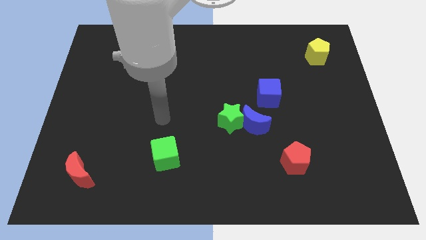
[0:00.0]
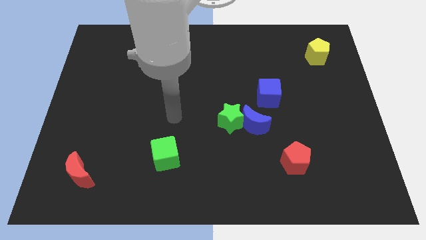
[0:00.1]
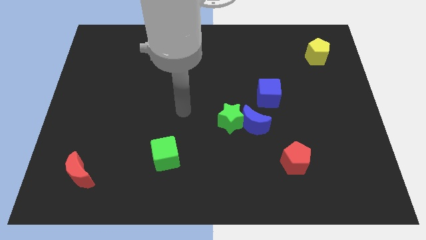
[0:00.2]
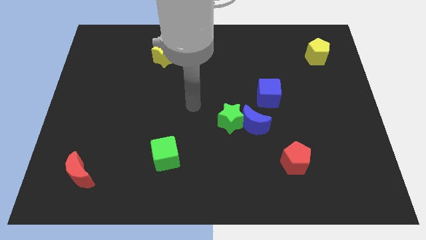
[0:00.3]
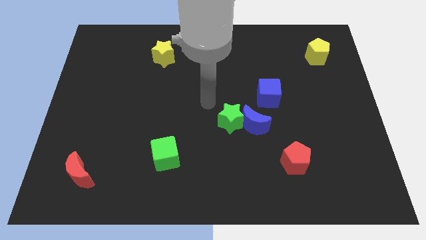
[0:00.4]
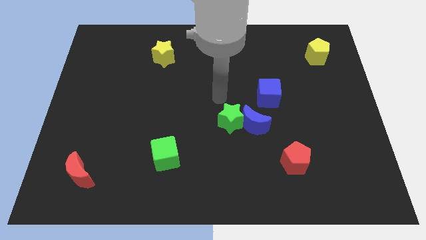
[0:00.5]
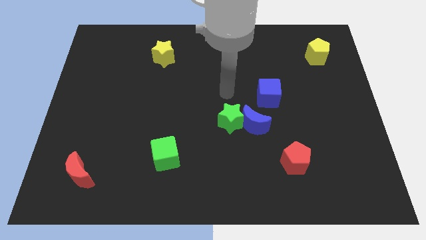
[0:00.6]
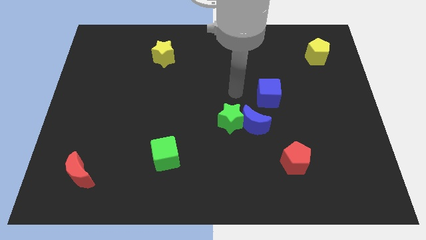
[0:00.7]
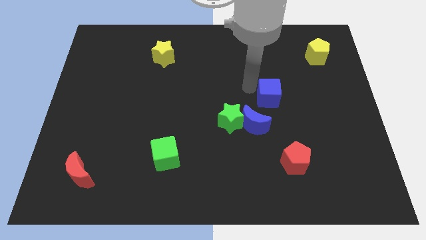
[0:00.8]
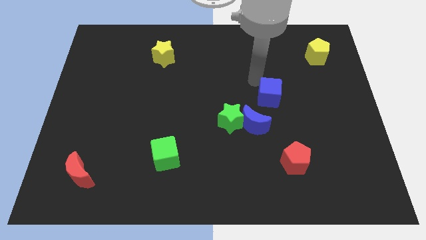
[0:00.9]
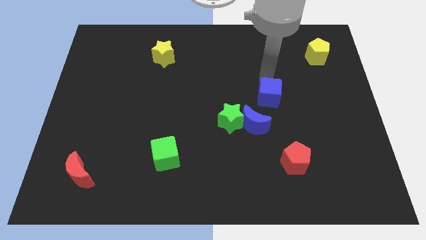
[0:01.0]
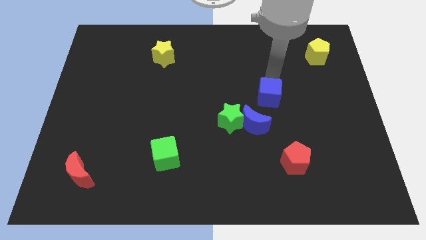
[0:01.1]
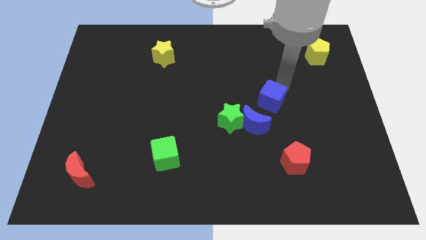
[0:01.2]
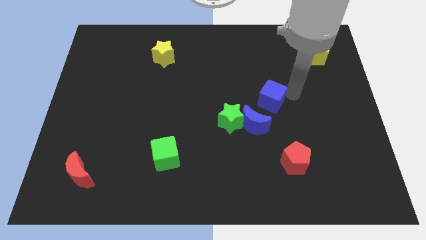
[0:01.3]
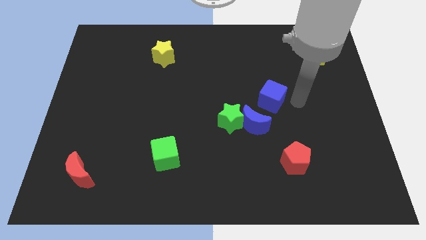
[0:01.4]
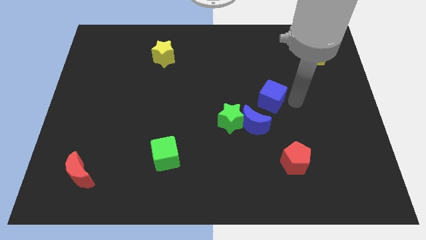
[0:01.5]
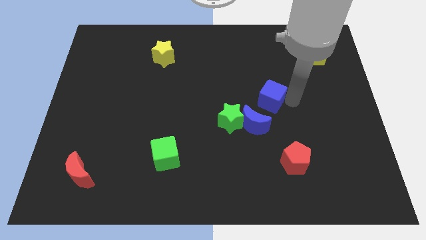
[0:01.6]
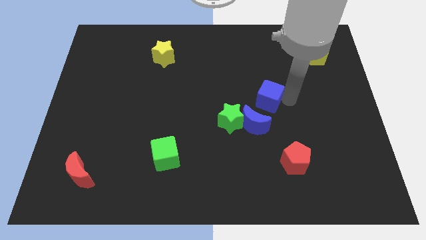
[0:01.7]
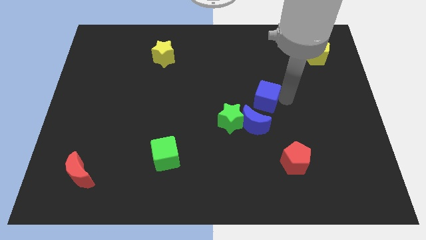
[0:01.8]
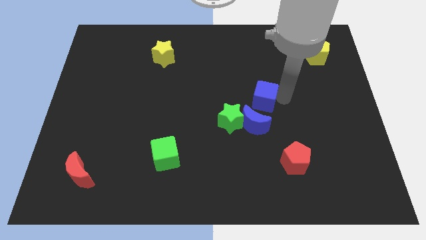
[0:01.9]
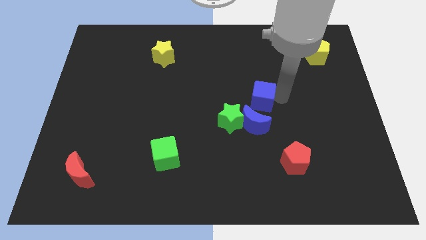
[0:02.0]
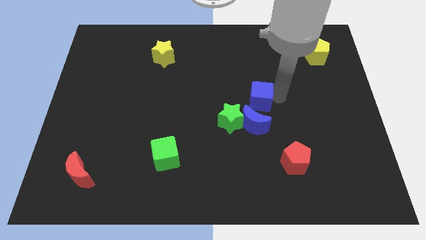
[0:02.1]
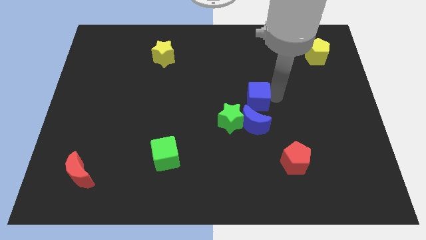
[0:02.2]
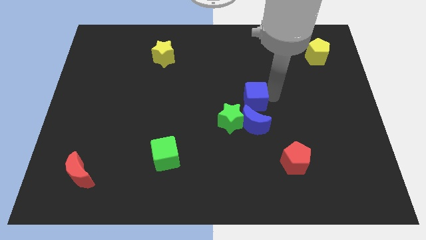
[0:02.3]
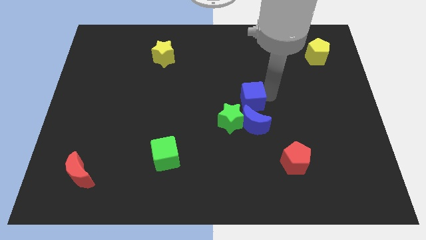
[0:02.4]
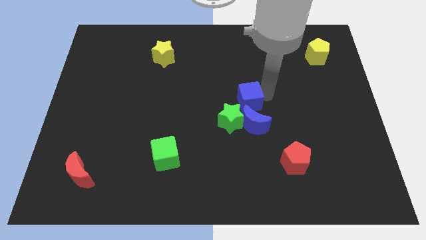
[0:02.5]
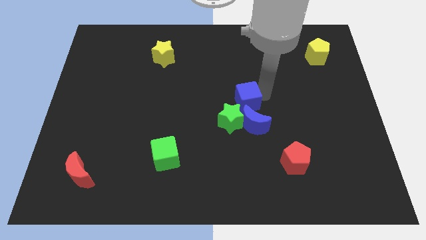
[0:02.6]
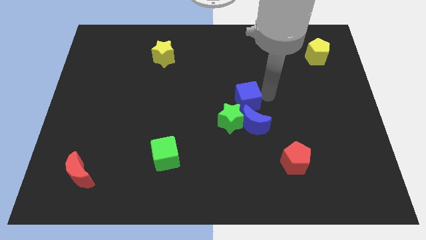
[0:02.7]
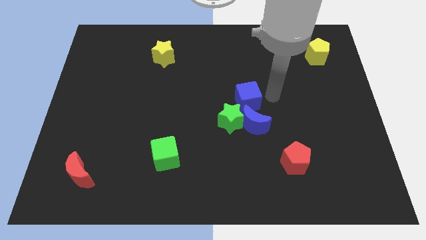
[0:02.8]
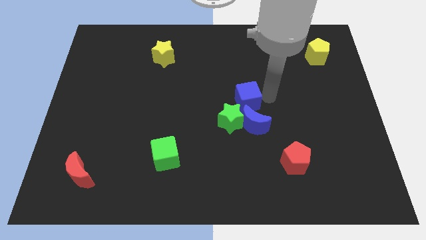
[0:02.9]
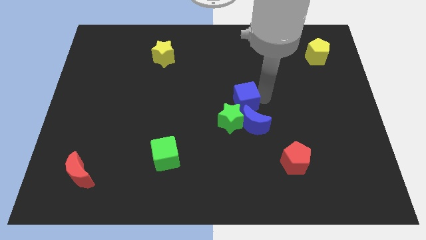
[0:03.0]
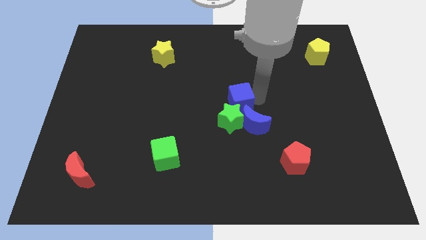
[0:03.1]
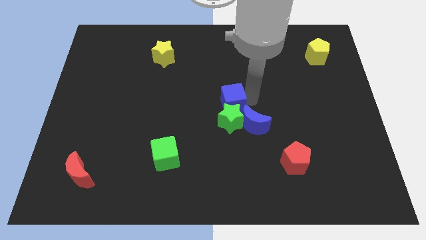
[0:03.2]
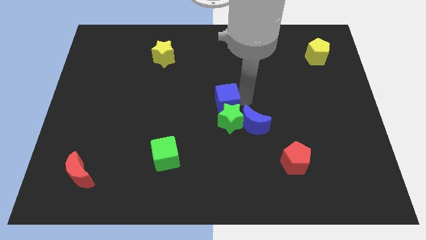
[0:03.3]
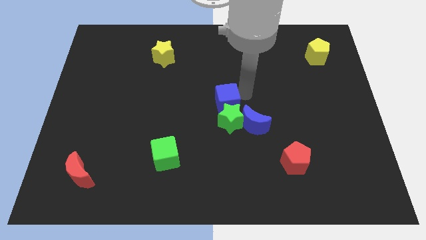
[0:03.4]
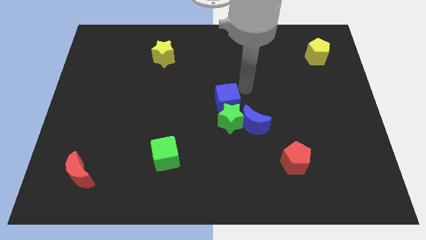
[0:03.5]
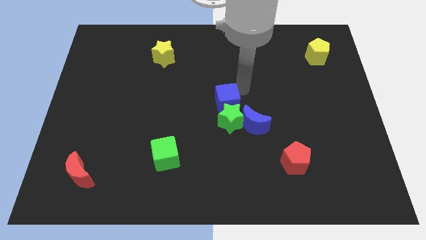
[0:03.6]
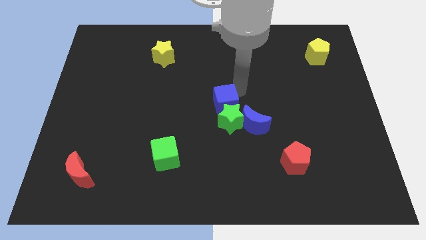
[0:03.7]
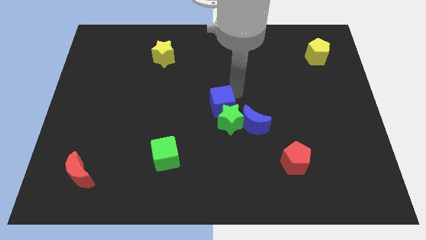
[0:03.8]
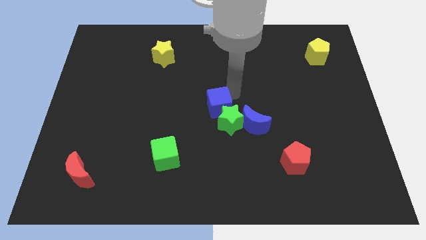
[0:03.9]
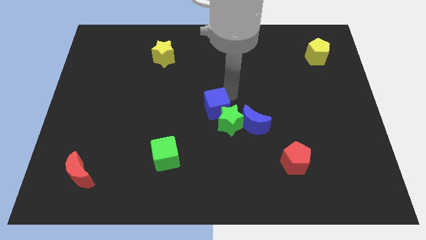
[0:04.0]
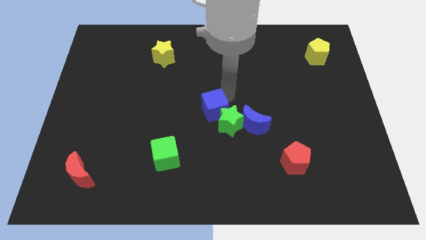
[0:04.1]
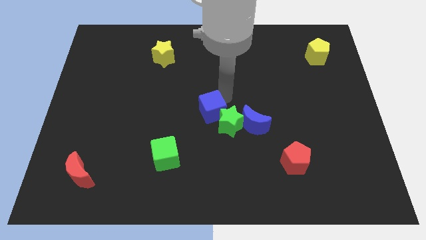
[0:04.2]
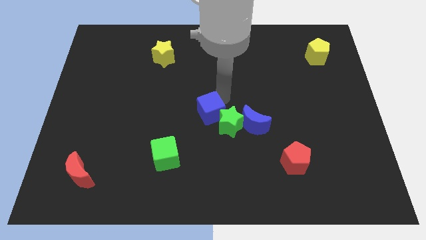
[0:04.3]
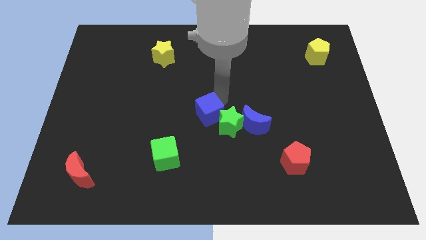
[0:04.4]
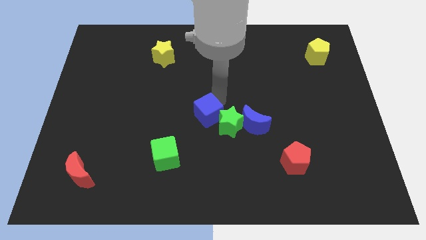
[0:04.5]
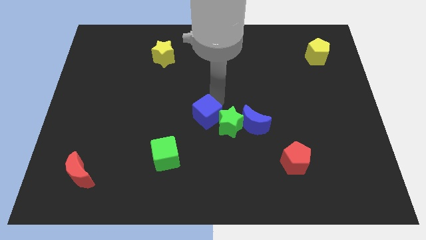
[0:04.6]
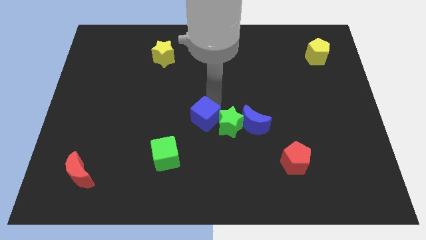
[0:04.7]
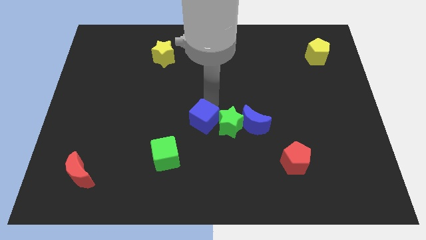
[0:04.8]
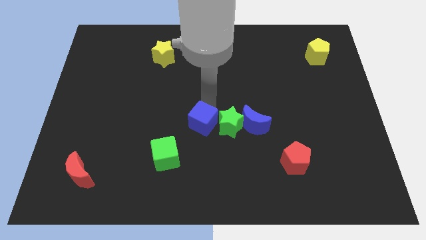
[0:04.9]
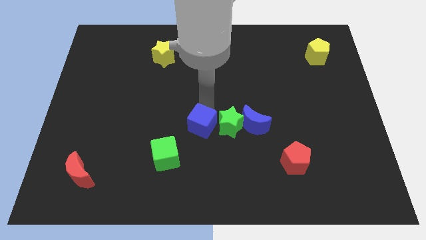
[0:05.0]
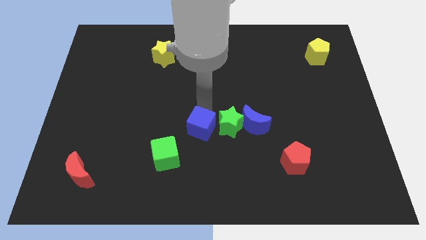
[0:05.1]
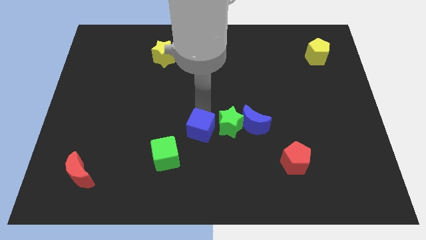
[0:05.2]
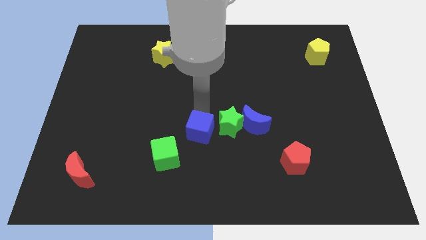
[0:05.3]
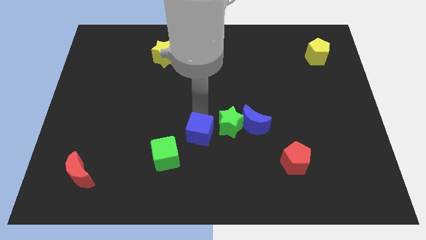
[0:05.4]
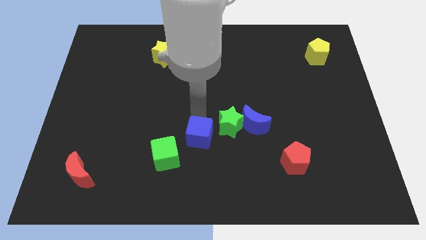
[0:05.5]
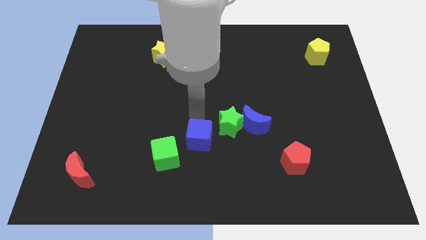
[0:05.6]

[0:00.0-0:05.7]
move the blue cube downwards and then to the left

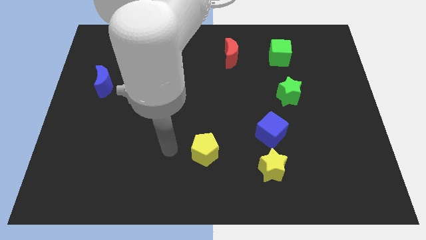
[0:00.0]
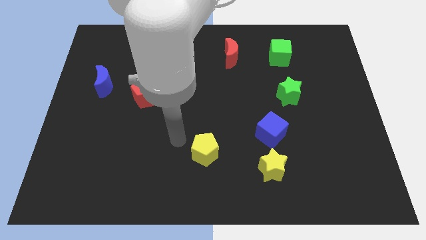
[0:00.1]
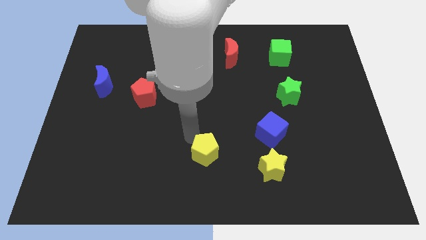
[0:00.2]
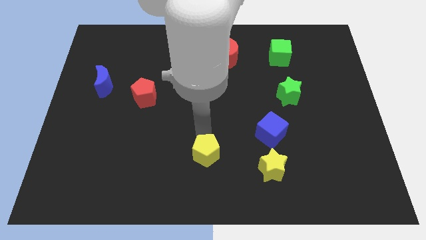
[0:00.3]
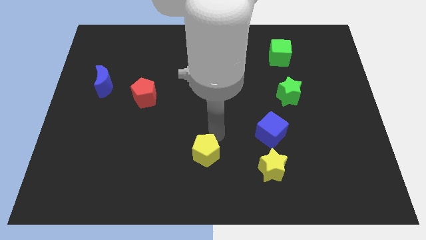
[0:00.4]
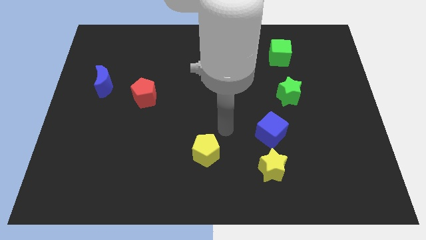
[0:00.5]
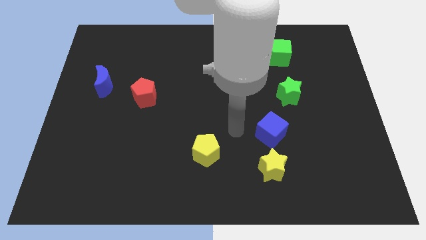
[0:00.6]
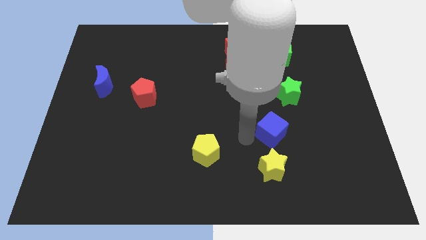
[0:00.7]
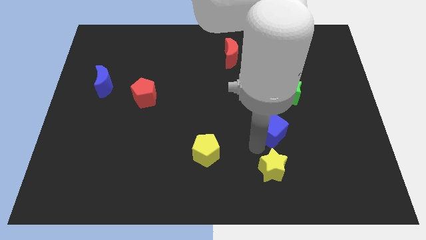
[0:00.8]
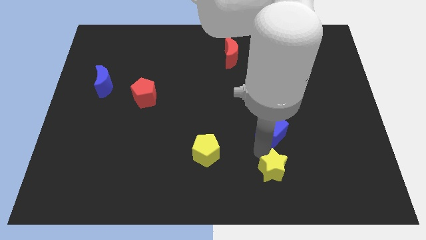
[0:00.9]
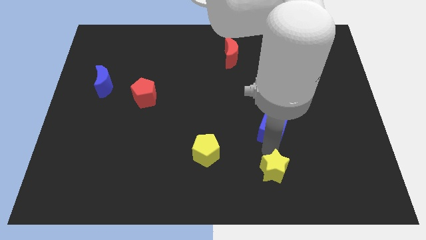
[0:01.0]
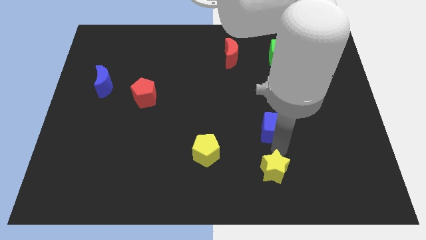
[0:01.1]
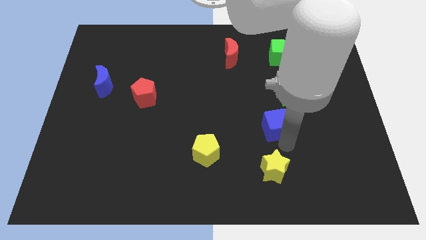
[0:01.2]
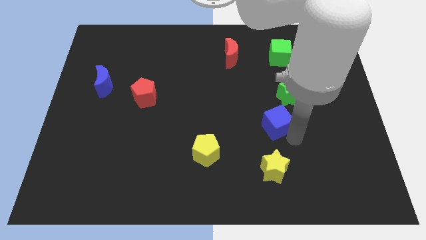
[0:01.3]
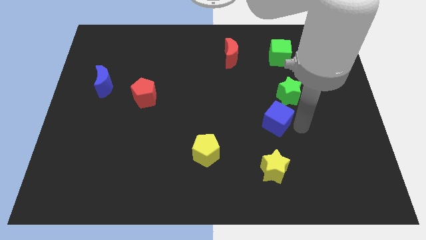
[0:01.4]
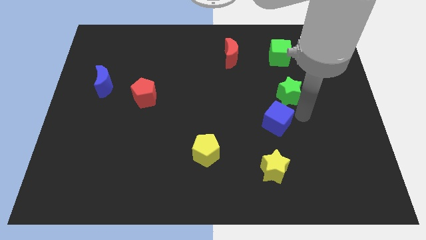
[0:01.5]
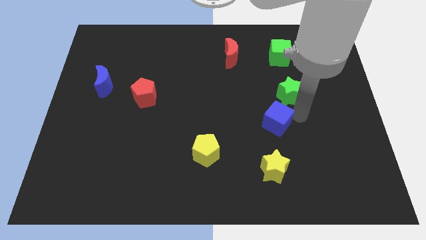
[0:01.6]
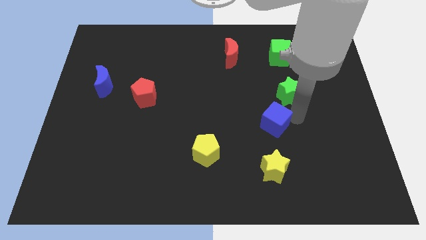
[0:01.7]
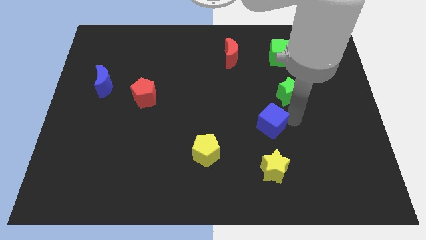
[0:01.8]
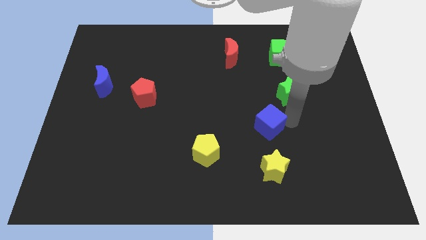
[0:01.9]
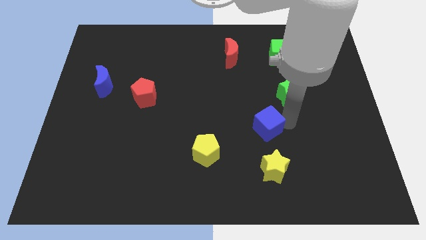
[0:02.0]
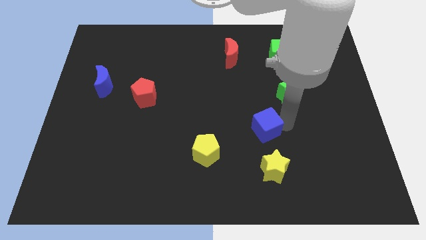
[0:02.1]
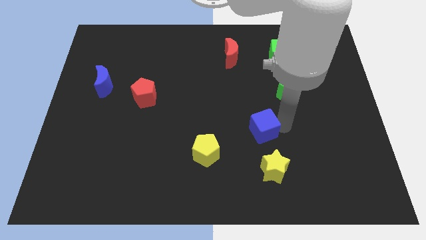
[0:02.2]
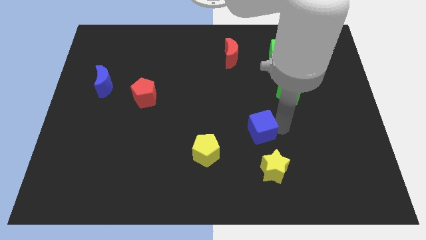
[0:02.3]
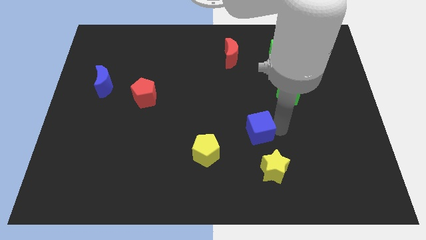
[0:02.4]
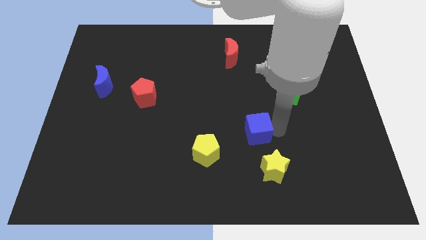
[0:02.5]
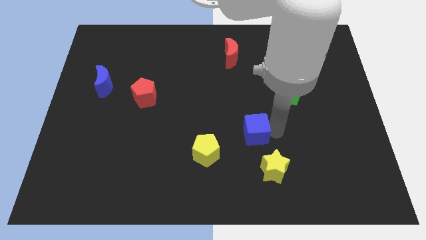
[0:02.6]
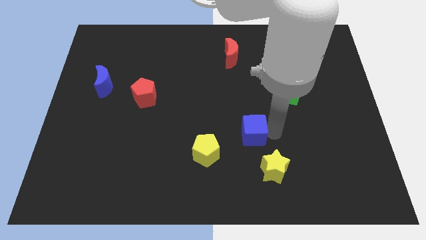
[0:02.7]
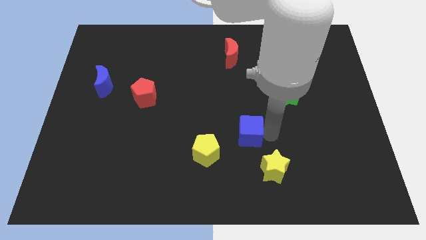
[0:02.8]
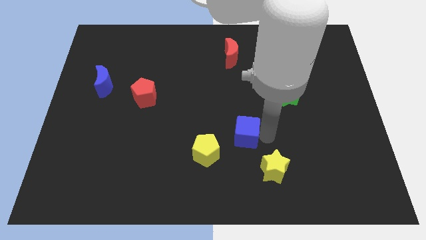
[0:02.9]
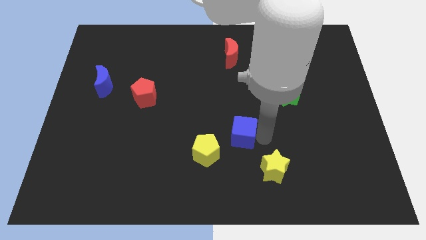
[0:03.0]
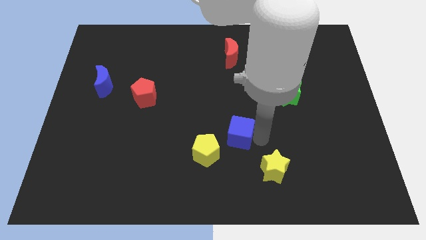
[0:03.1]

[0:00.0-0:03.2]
slide the blue cube left a little bit
